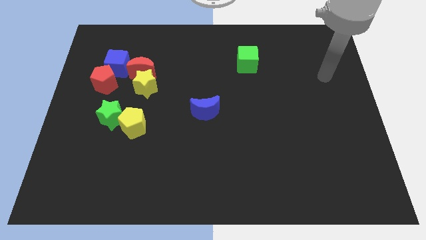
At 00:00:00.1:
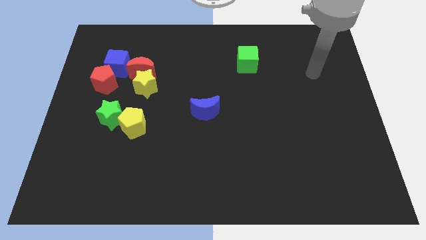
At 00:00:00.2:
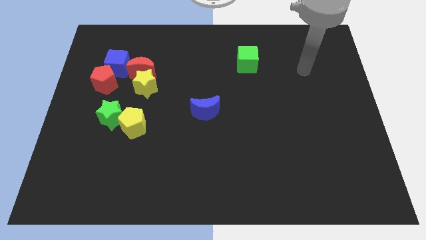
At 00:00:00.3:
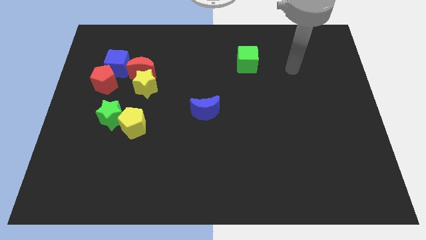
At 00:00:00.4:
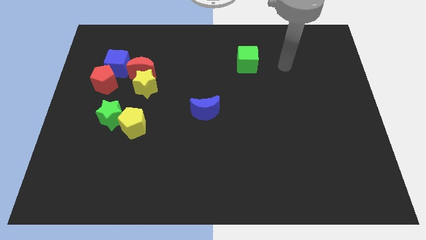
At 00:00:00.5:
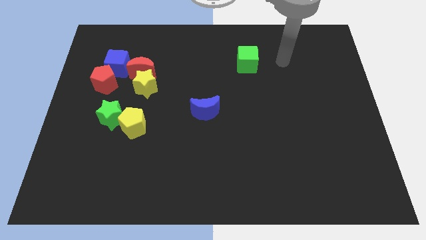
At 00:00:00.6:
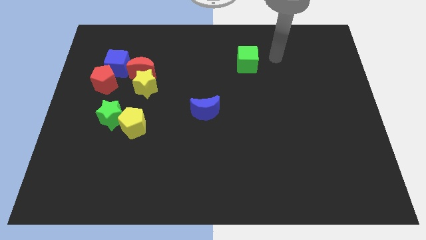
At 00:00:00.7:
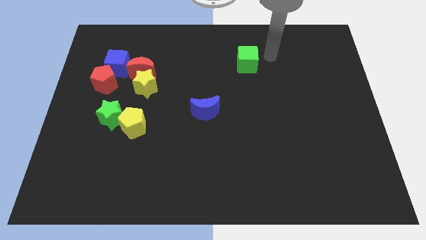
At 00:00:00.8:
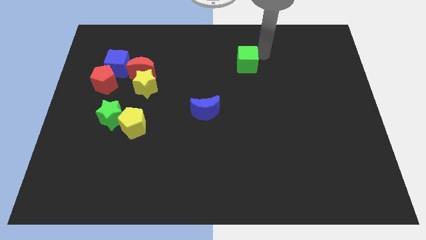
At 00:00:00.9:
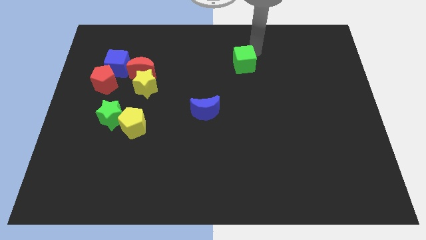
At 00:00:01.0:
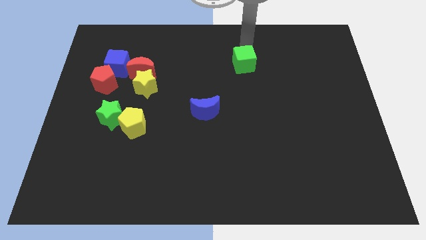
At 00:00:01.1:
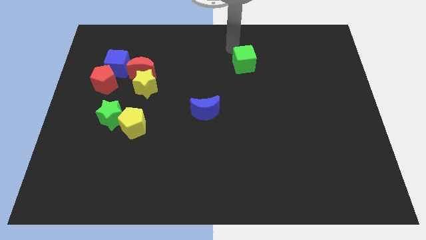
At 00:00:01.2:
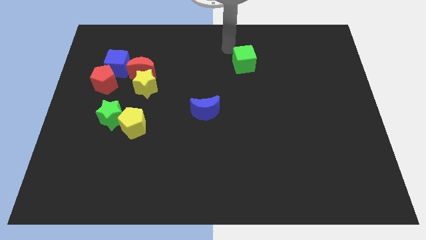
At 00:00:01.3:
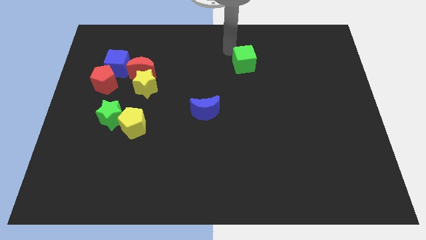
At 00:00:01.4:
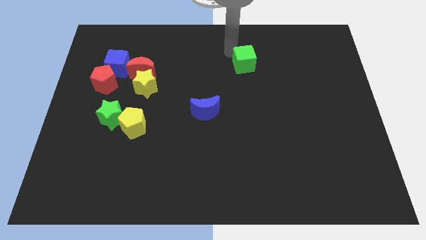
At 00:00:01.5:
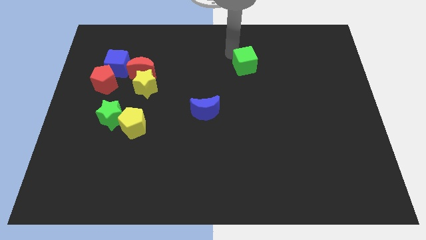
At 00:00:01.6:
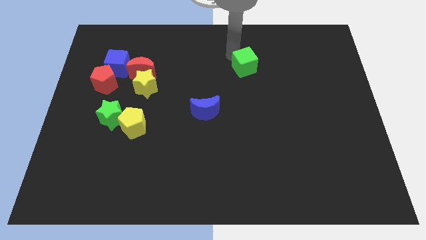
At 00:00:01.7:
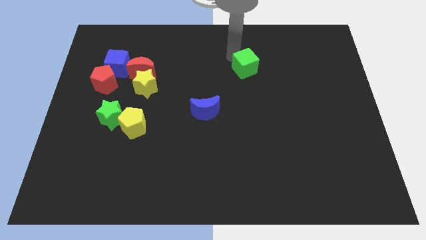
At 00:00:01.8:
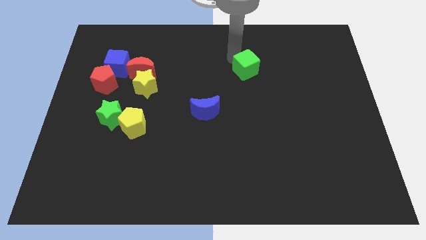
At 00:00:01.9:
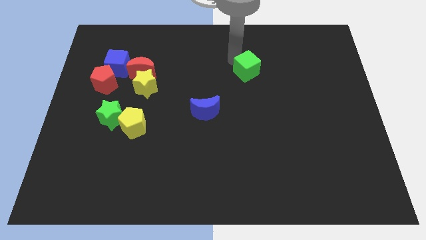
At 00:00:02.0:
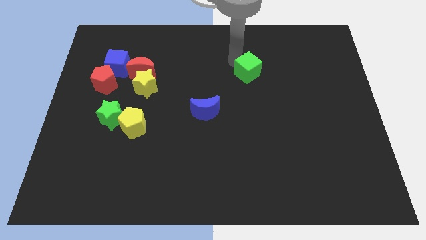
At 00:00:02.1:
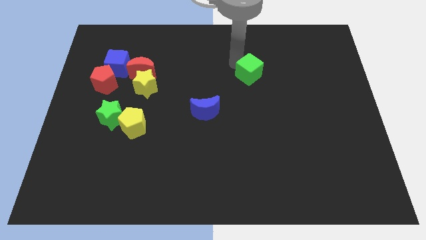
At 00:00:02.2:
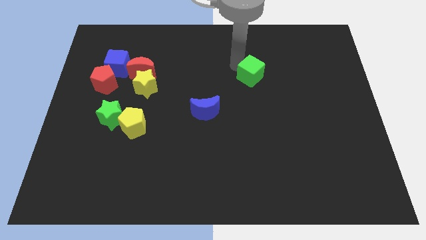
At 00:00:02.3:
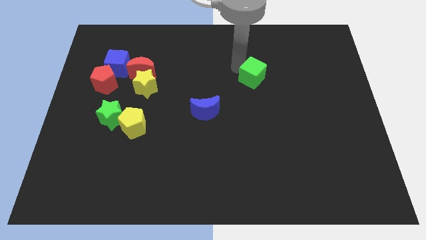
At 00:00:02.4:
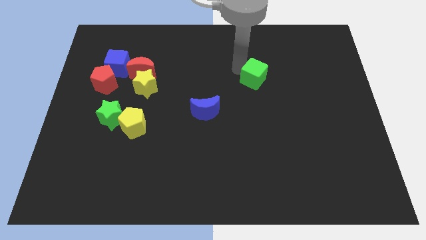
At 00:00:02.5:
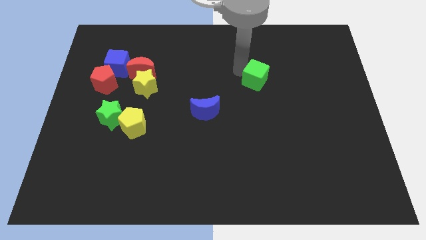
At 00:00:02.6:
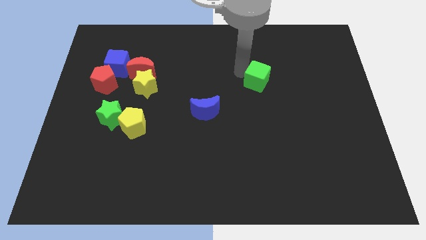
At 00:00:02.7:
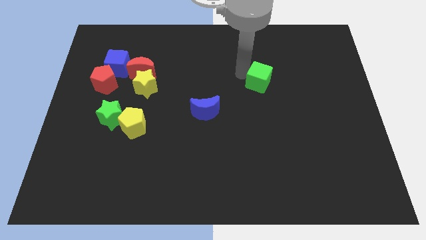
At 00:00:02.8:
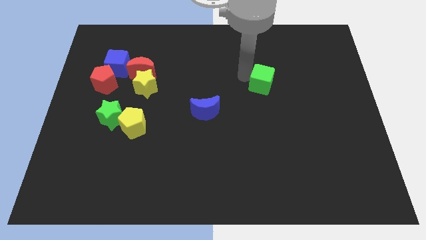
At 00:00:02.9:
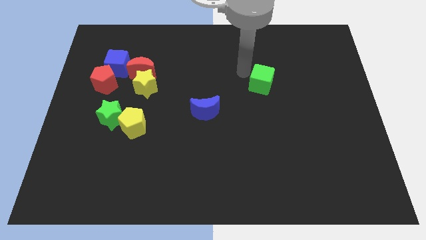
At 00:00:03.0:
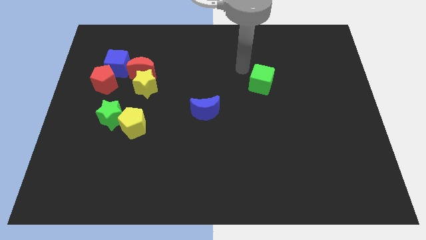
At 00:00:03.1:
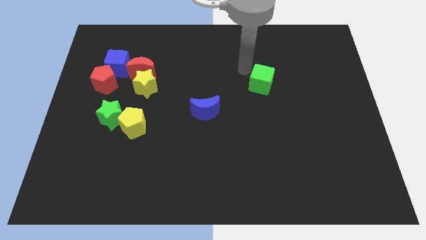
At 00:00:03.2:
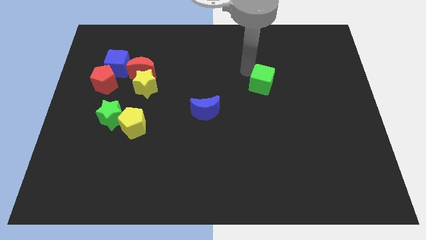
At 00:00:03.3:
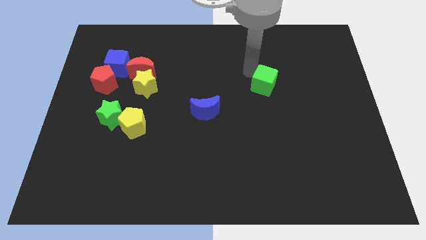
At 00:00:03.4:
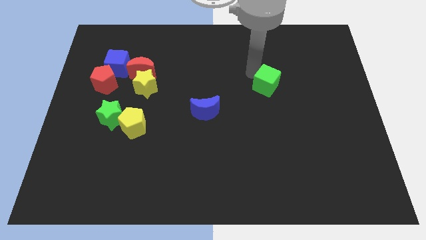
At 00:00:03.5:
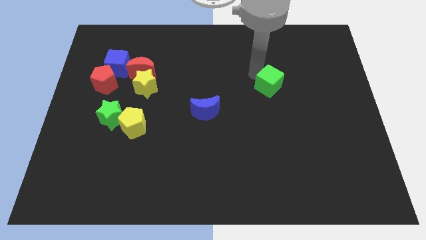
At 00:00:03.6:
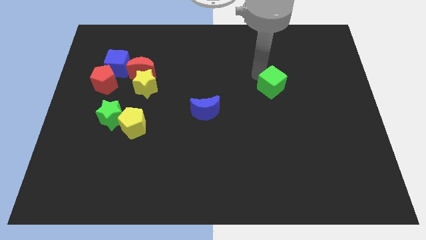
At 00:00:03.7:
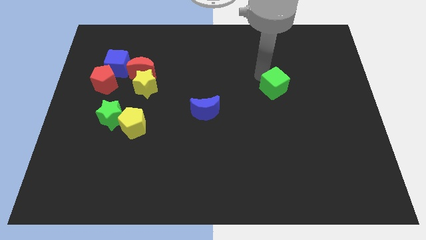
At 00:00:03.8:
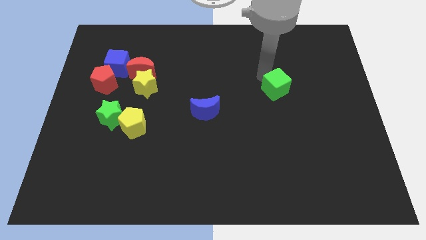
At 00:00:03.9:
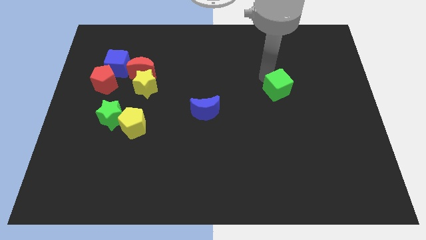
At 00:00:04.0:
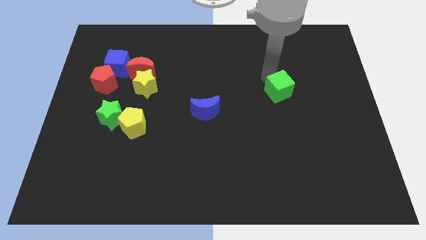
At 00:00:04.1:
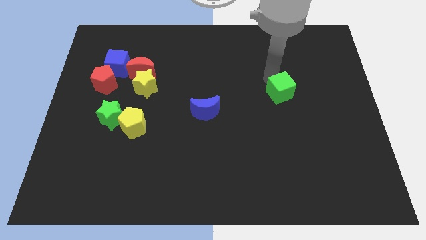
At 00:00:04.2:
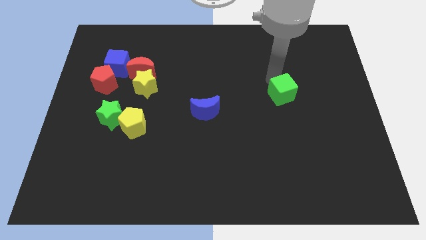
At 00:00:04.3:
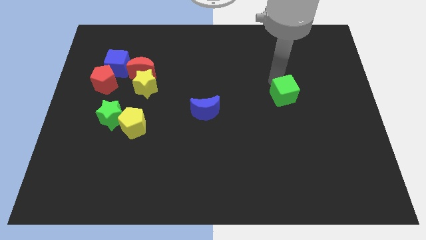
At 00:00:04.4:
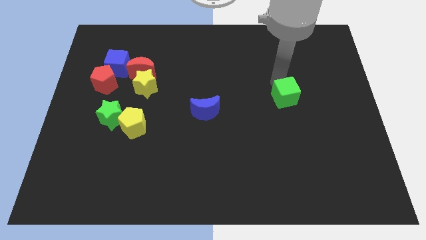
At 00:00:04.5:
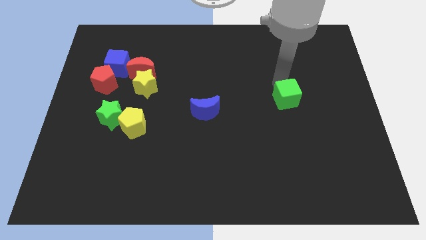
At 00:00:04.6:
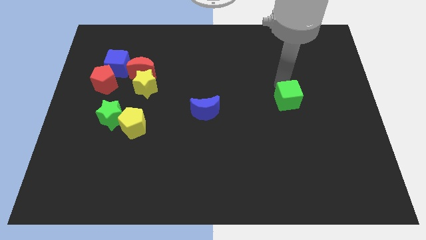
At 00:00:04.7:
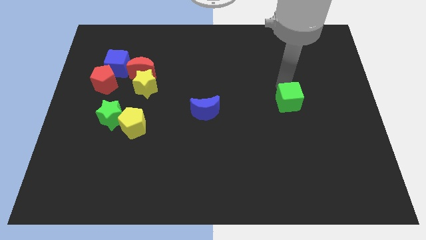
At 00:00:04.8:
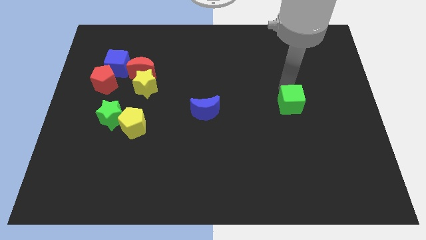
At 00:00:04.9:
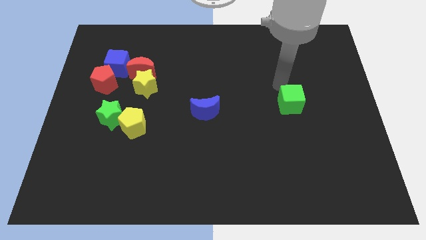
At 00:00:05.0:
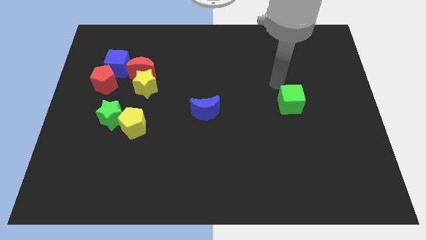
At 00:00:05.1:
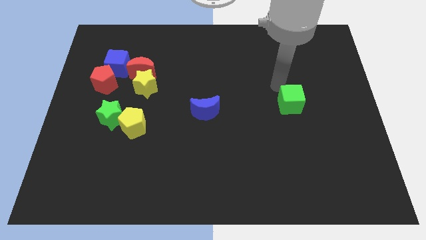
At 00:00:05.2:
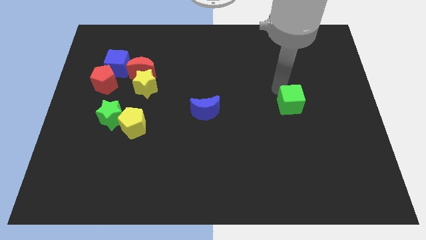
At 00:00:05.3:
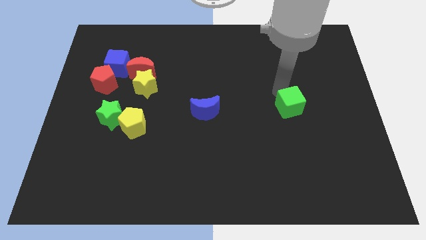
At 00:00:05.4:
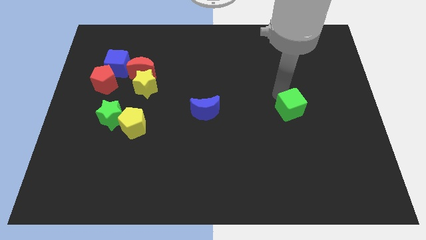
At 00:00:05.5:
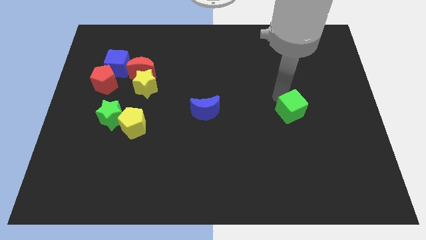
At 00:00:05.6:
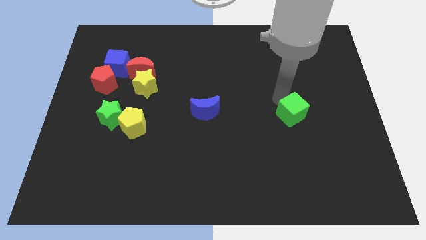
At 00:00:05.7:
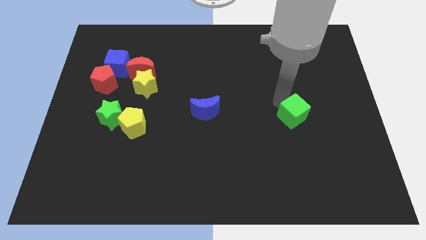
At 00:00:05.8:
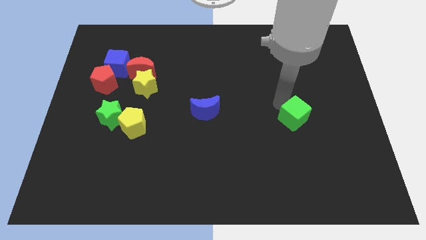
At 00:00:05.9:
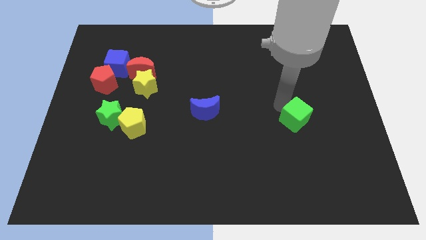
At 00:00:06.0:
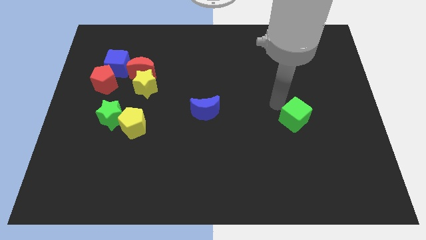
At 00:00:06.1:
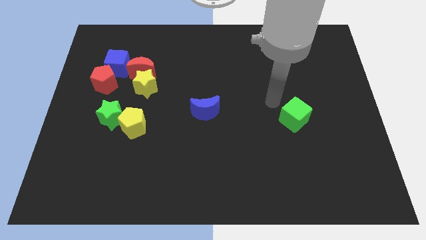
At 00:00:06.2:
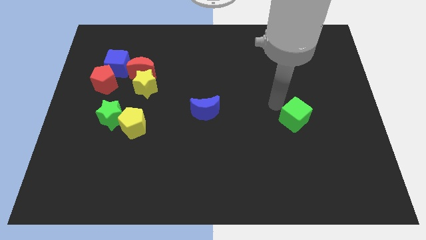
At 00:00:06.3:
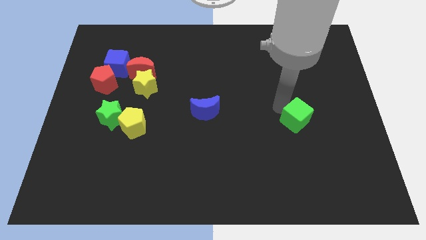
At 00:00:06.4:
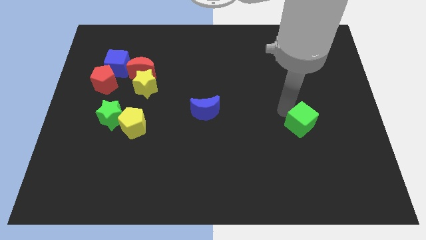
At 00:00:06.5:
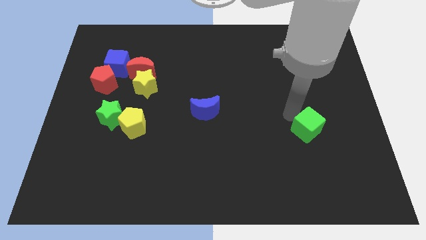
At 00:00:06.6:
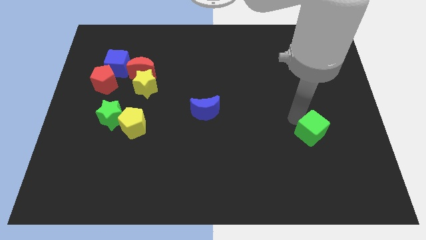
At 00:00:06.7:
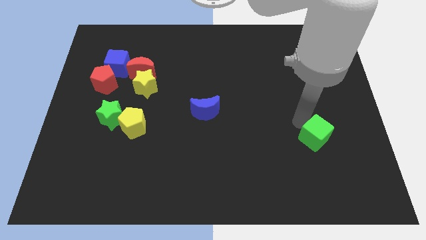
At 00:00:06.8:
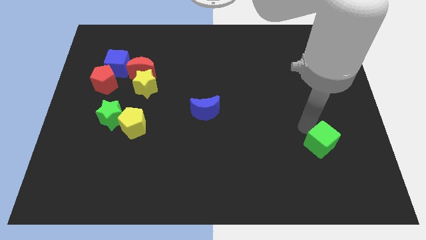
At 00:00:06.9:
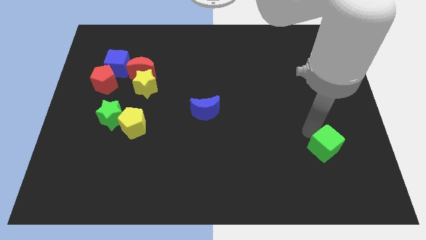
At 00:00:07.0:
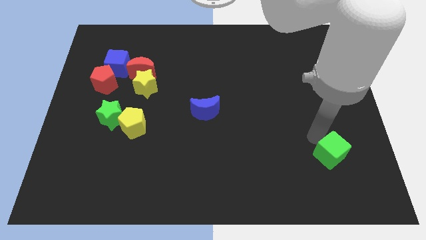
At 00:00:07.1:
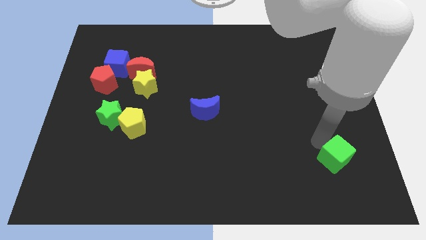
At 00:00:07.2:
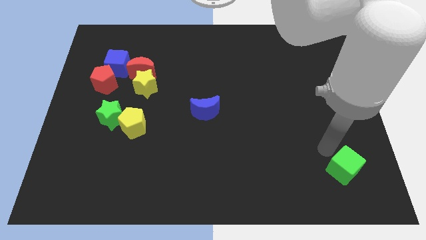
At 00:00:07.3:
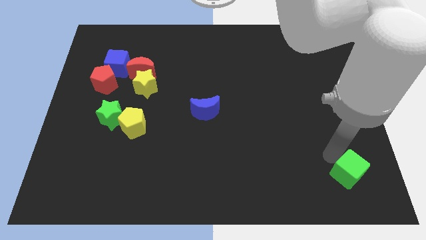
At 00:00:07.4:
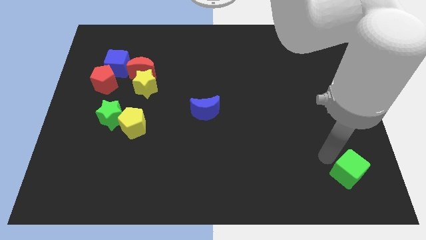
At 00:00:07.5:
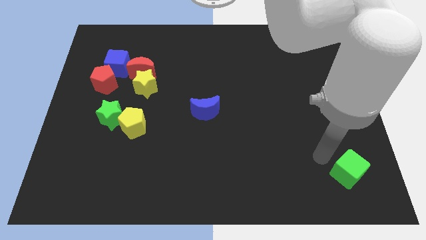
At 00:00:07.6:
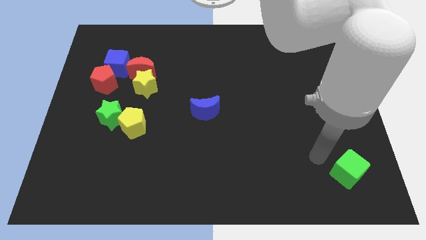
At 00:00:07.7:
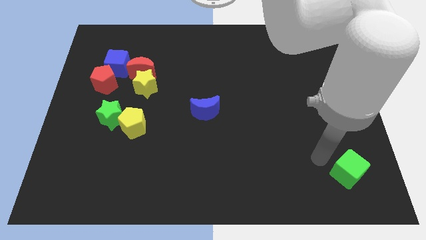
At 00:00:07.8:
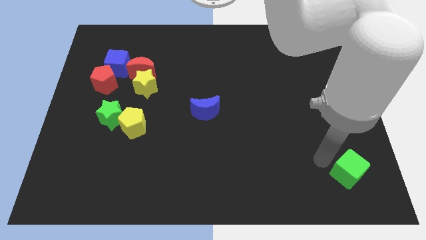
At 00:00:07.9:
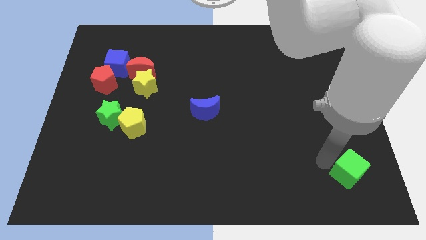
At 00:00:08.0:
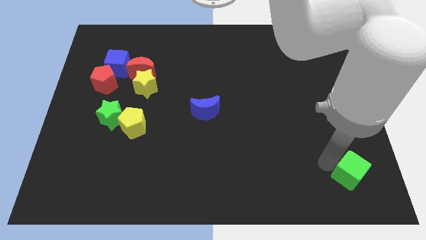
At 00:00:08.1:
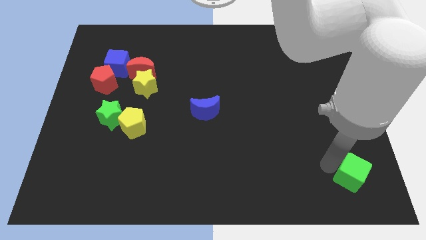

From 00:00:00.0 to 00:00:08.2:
put the green cube to the lower right corner
